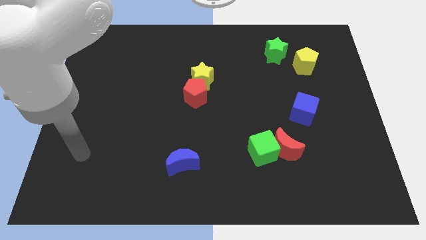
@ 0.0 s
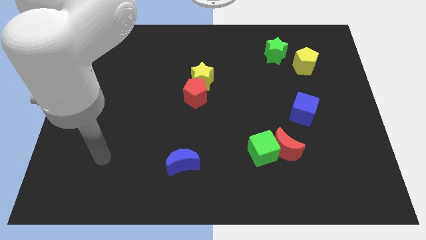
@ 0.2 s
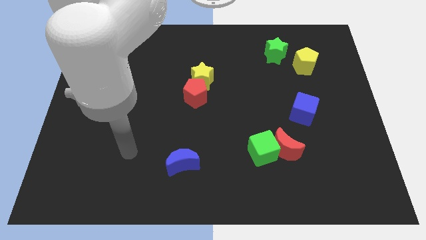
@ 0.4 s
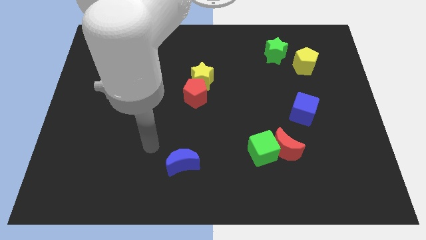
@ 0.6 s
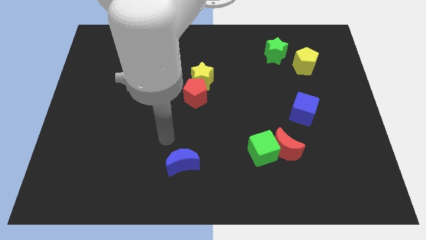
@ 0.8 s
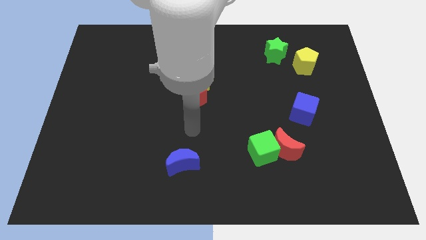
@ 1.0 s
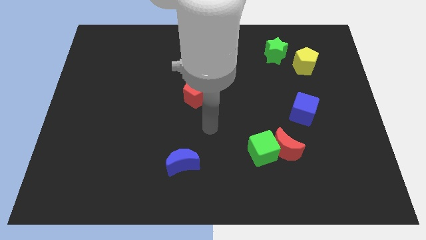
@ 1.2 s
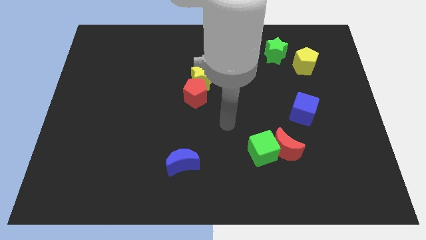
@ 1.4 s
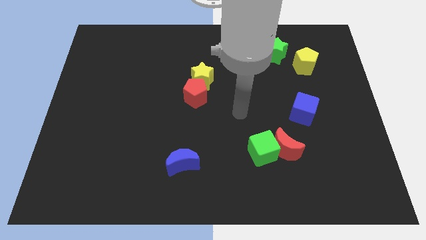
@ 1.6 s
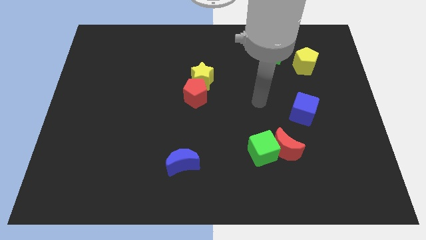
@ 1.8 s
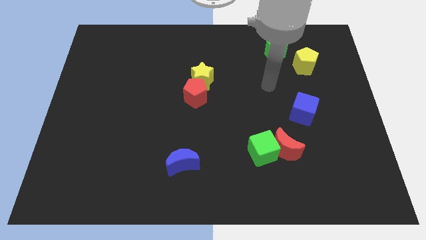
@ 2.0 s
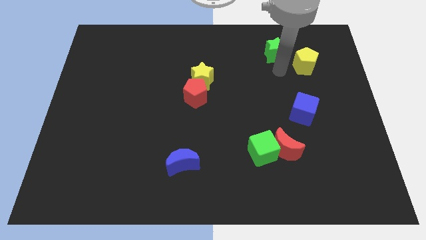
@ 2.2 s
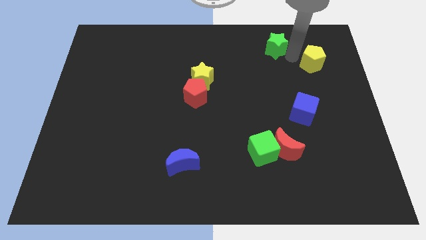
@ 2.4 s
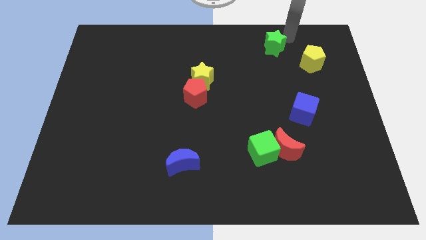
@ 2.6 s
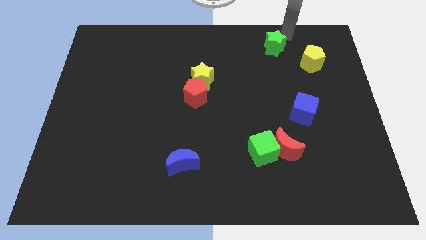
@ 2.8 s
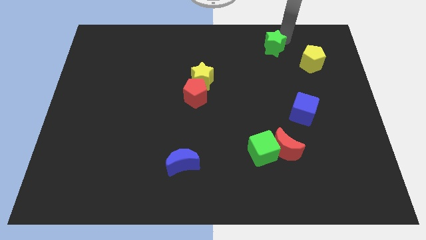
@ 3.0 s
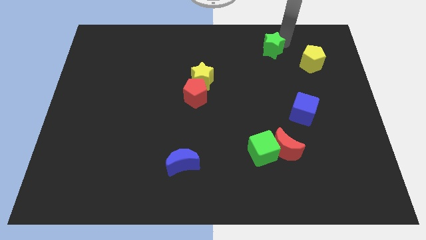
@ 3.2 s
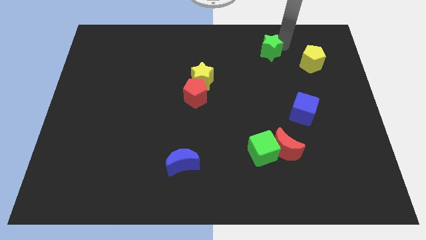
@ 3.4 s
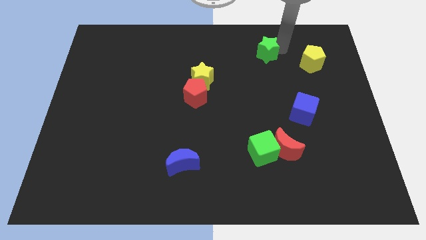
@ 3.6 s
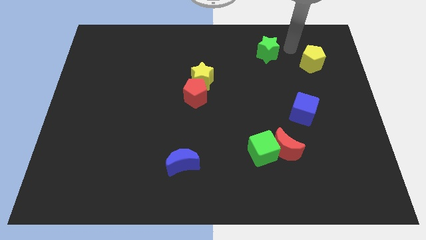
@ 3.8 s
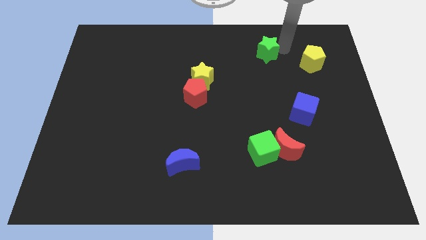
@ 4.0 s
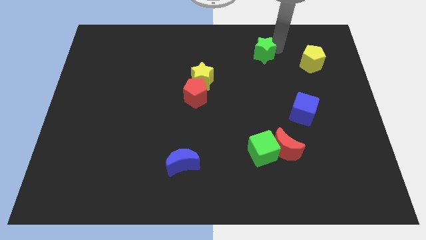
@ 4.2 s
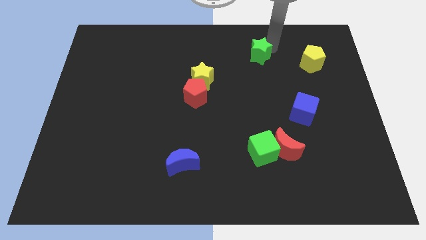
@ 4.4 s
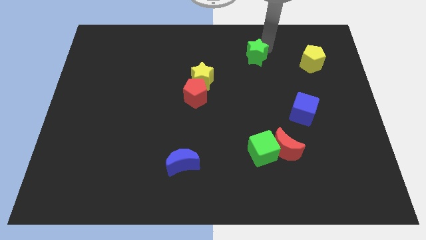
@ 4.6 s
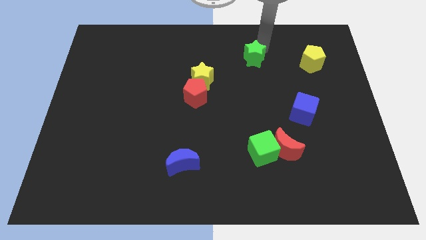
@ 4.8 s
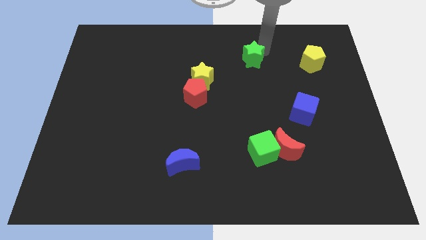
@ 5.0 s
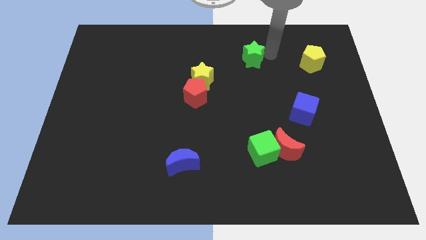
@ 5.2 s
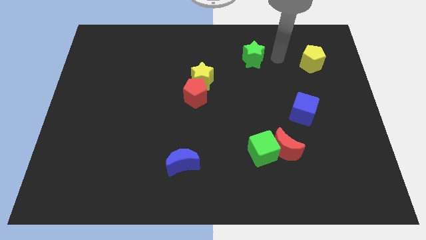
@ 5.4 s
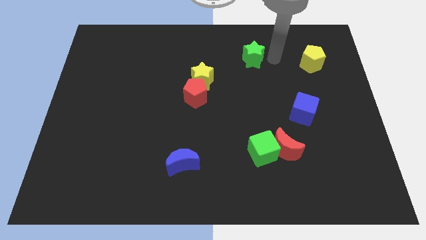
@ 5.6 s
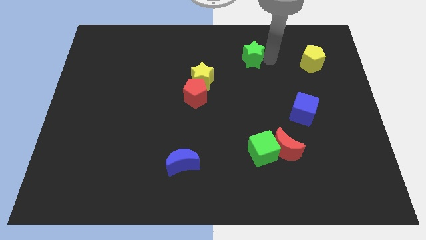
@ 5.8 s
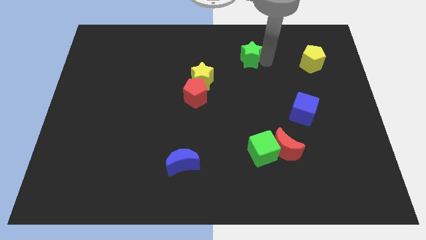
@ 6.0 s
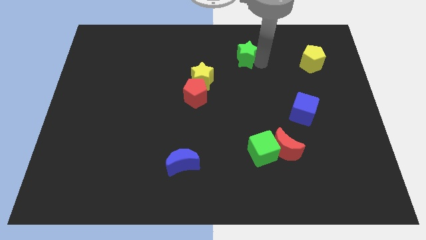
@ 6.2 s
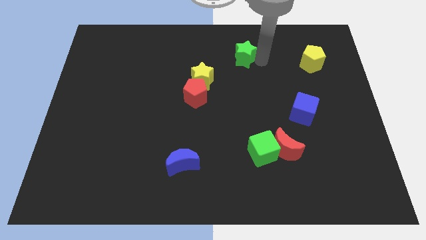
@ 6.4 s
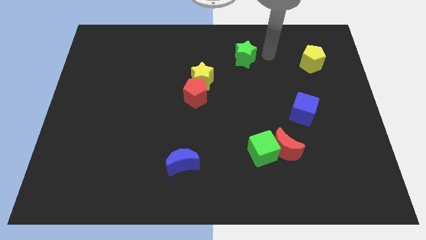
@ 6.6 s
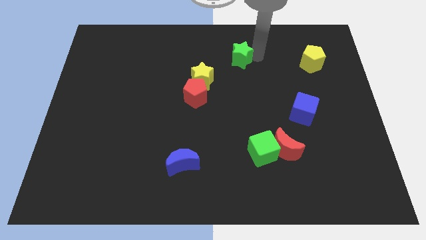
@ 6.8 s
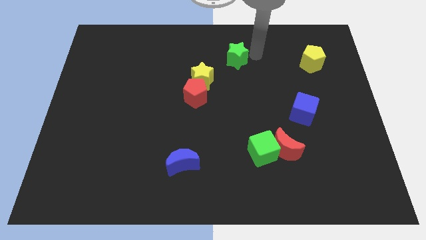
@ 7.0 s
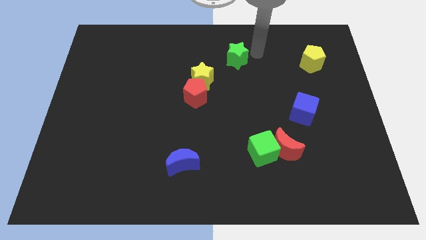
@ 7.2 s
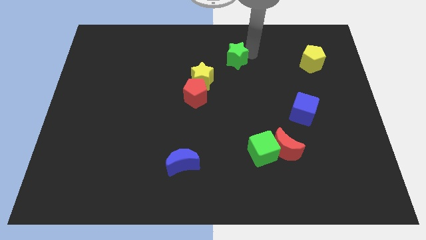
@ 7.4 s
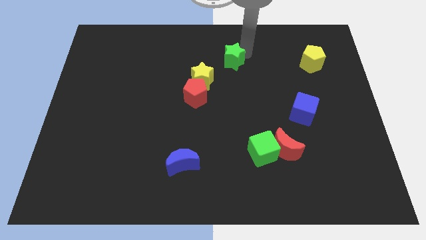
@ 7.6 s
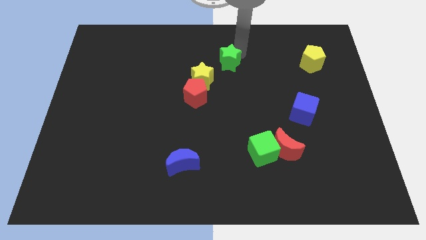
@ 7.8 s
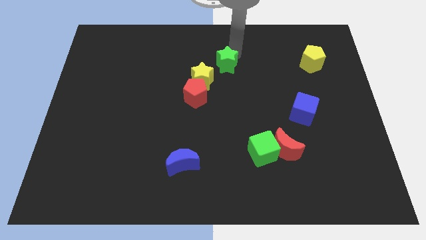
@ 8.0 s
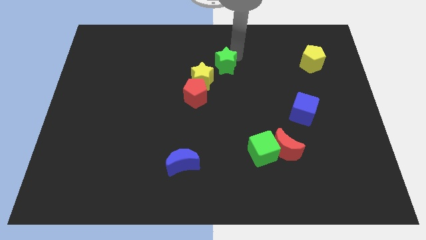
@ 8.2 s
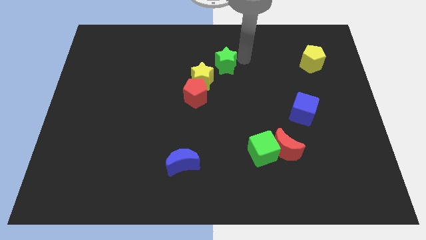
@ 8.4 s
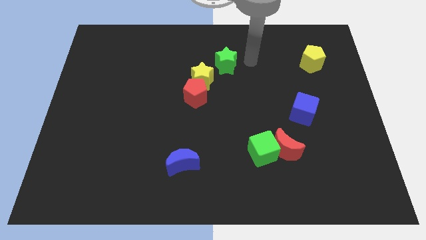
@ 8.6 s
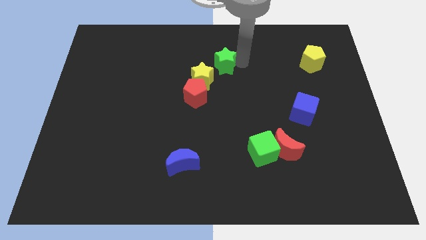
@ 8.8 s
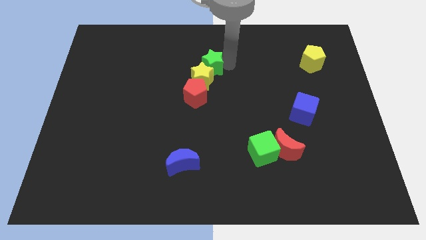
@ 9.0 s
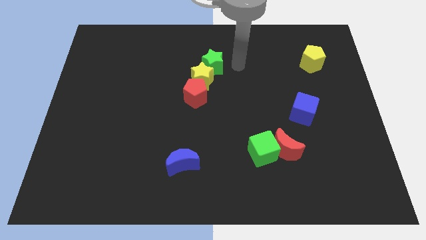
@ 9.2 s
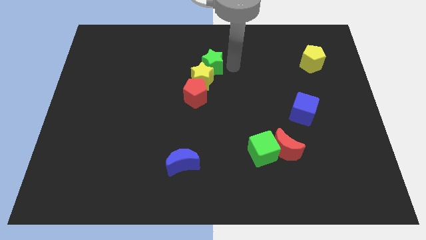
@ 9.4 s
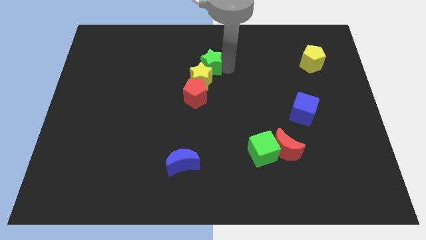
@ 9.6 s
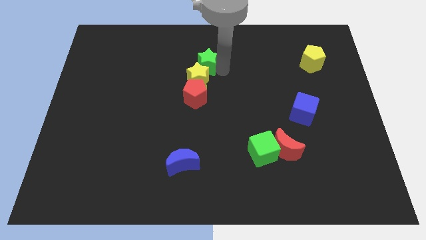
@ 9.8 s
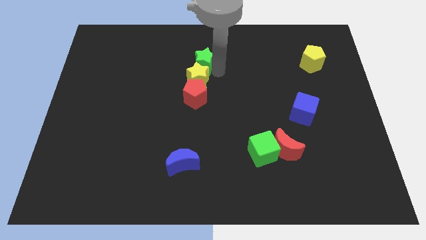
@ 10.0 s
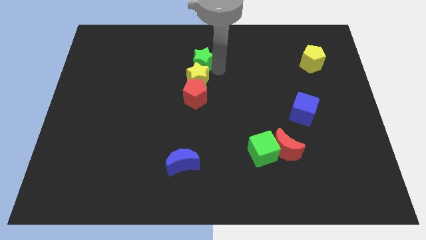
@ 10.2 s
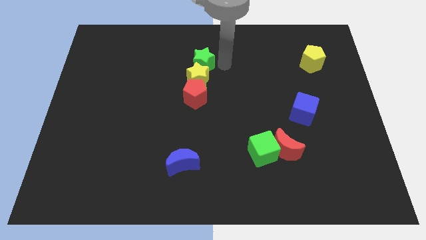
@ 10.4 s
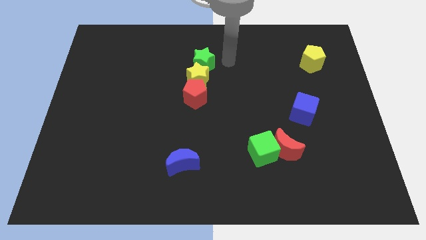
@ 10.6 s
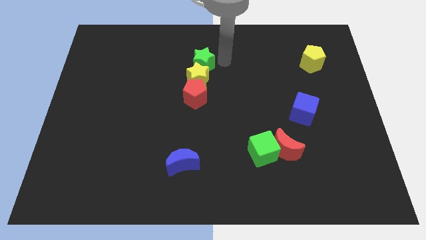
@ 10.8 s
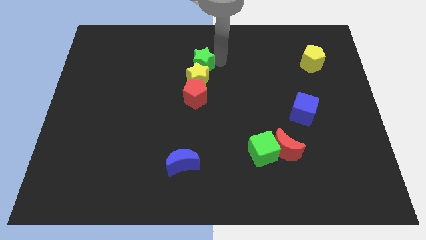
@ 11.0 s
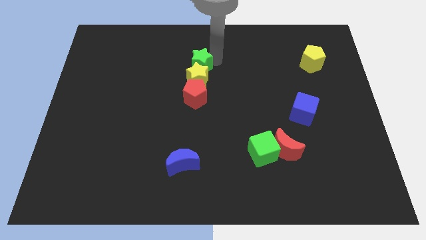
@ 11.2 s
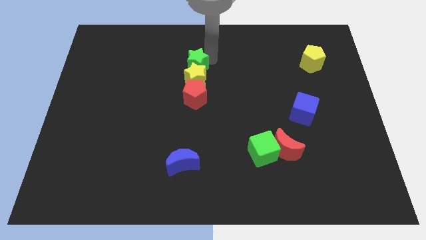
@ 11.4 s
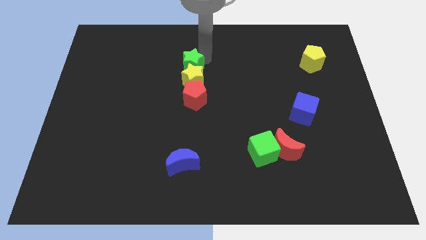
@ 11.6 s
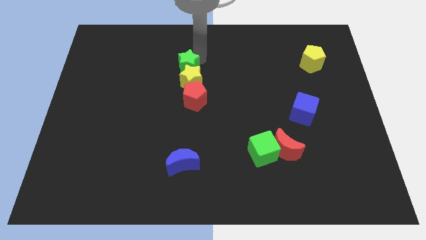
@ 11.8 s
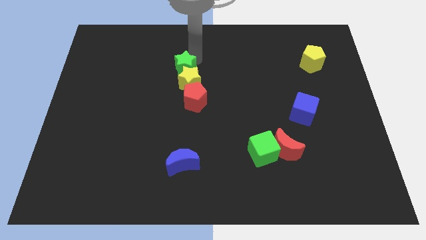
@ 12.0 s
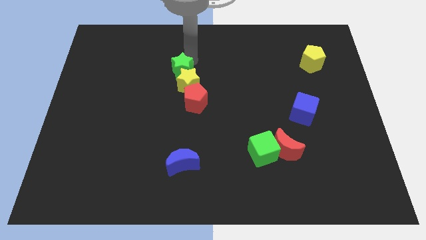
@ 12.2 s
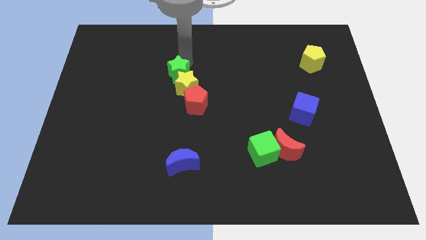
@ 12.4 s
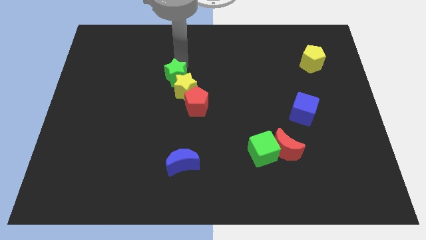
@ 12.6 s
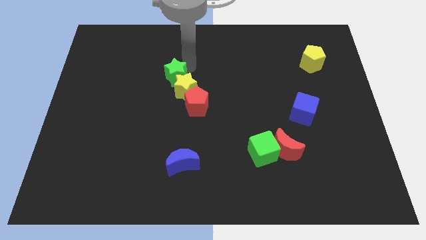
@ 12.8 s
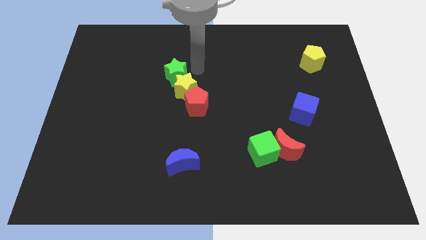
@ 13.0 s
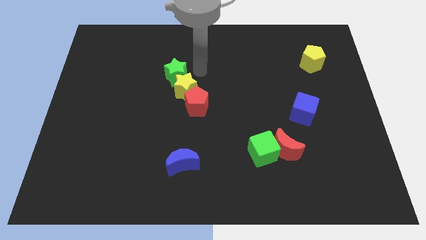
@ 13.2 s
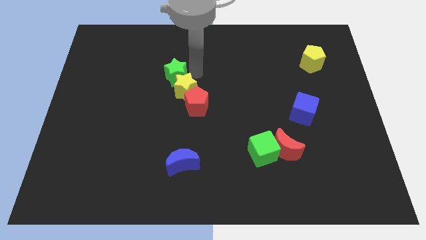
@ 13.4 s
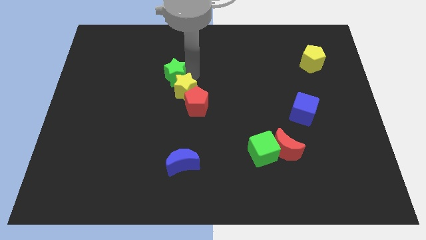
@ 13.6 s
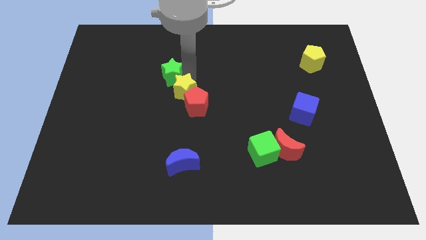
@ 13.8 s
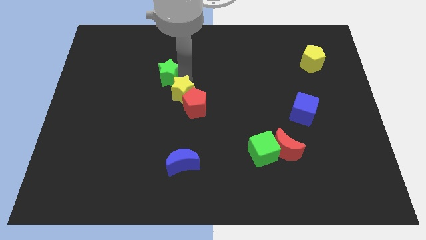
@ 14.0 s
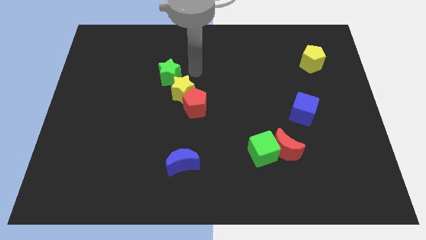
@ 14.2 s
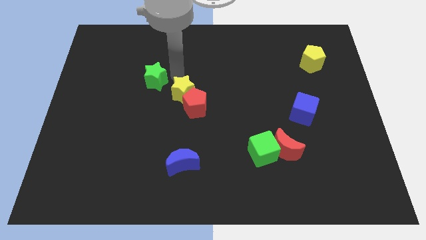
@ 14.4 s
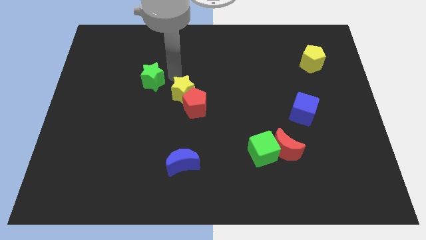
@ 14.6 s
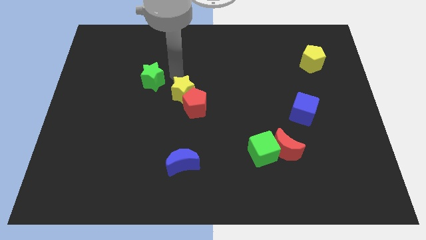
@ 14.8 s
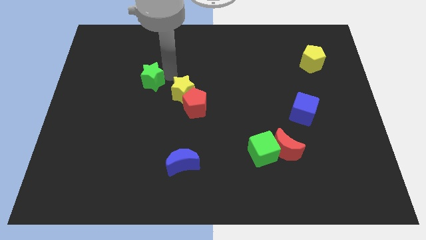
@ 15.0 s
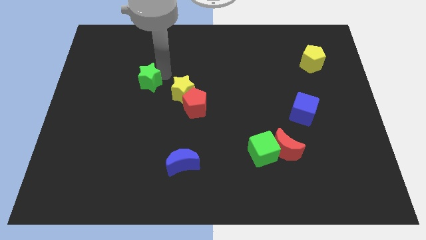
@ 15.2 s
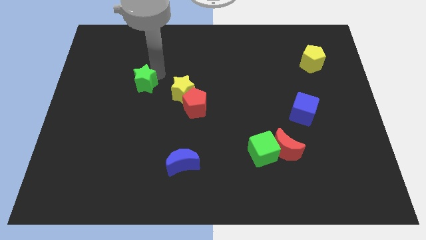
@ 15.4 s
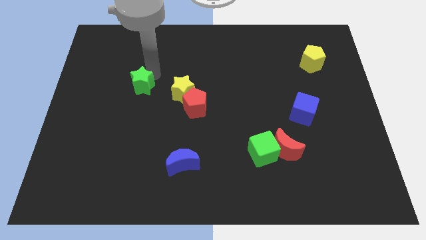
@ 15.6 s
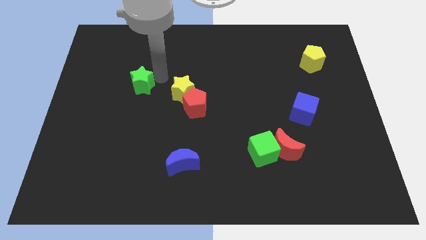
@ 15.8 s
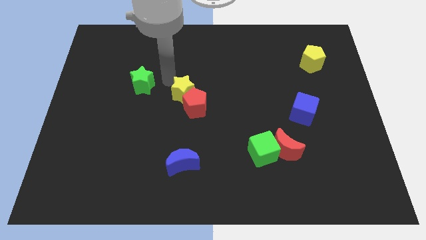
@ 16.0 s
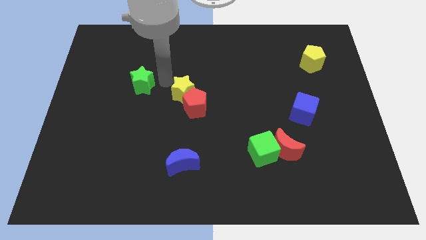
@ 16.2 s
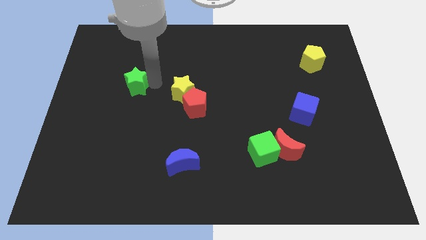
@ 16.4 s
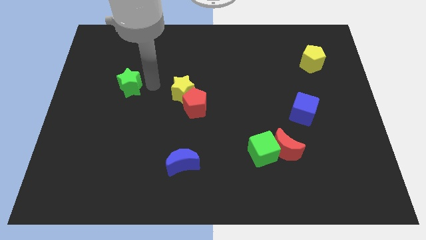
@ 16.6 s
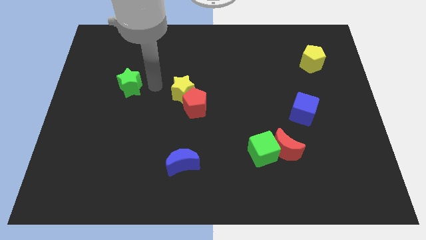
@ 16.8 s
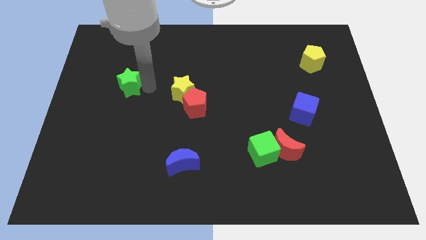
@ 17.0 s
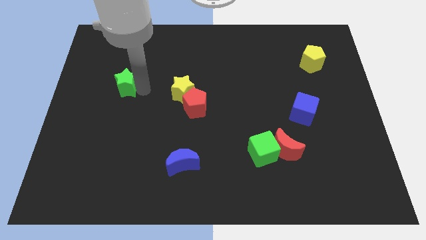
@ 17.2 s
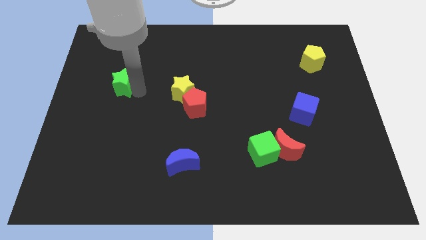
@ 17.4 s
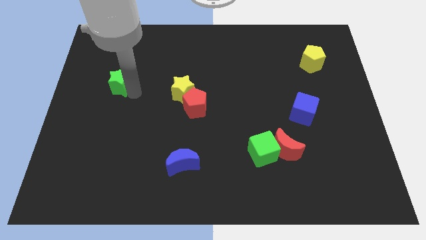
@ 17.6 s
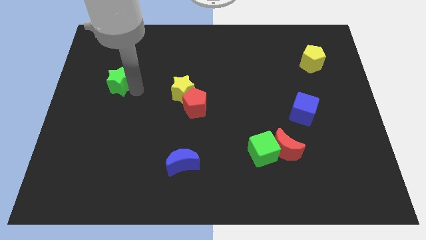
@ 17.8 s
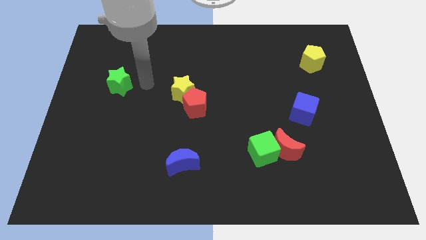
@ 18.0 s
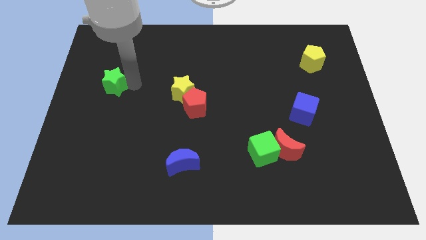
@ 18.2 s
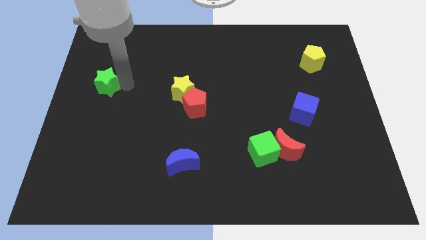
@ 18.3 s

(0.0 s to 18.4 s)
push the green star to the center left
